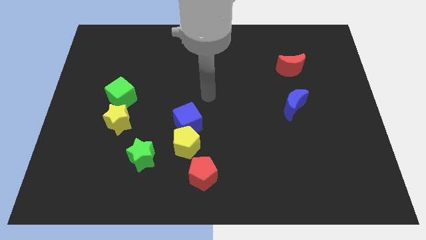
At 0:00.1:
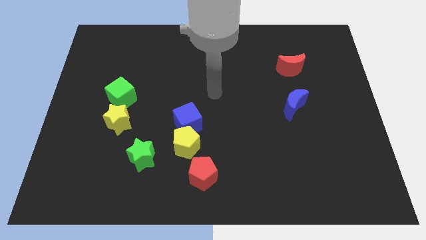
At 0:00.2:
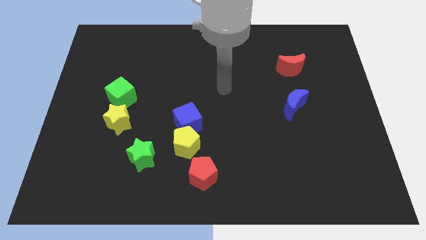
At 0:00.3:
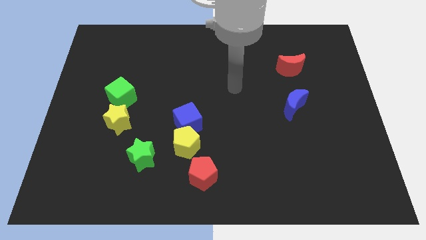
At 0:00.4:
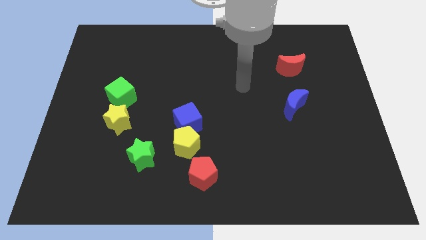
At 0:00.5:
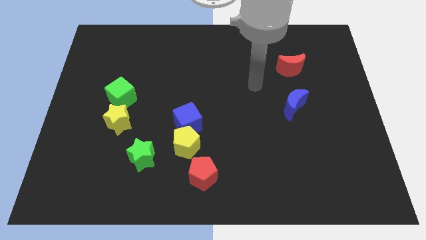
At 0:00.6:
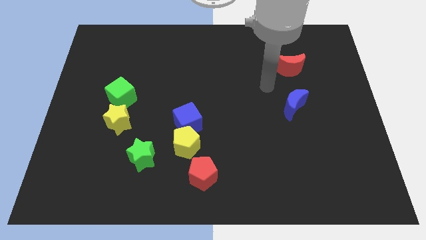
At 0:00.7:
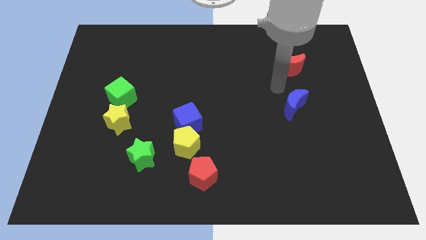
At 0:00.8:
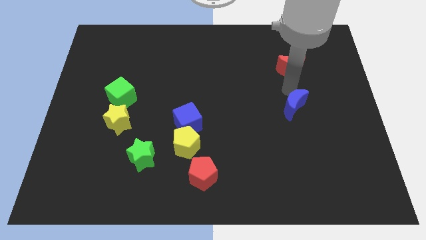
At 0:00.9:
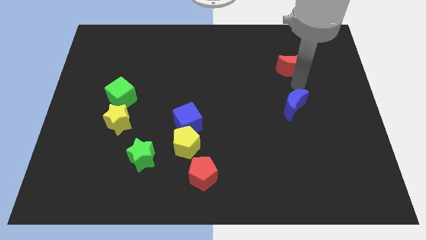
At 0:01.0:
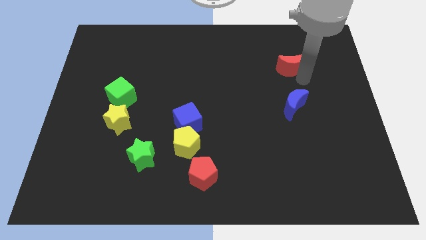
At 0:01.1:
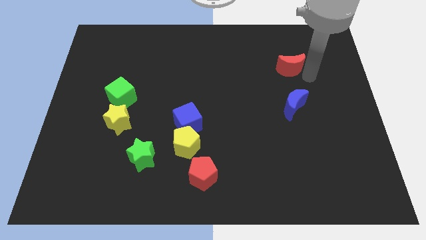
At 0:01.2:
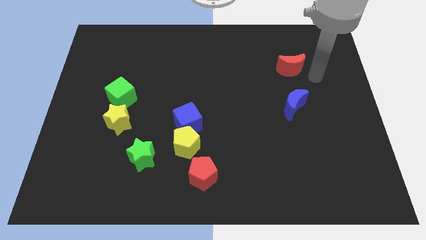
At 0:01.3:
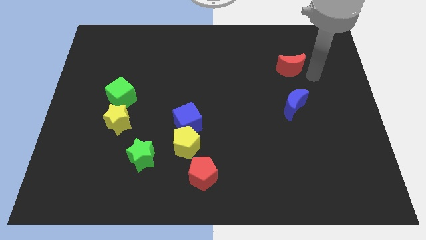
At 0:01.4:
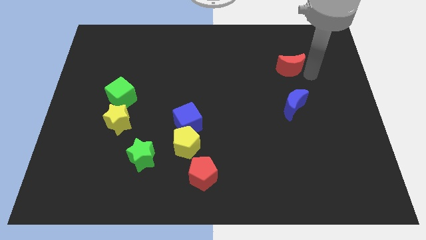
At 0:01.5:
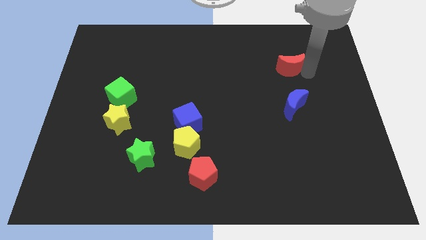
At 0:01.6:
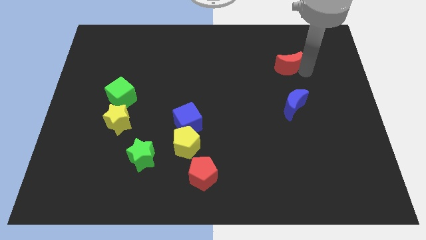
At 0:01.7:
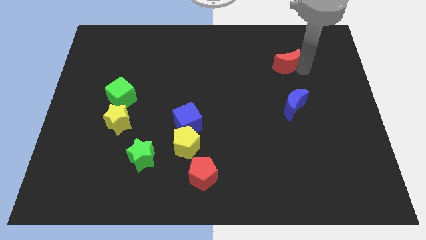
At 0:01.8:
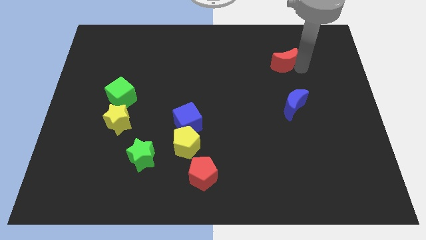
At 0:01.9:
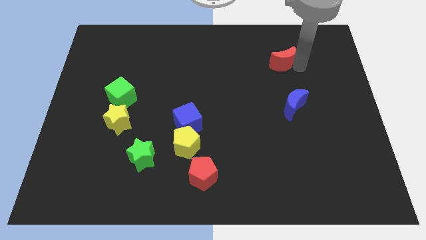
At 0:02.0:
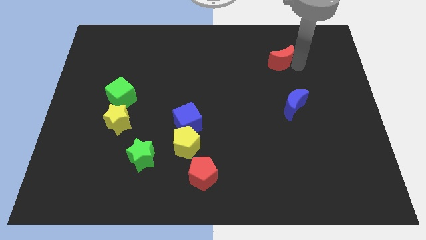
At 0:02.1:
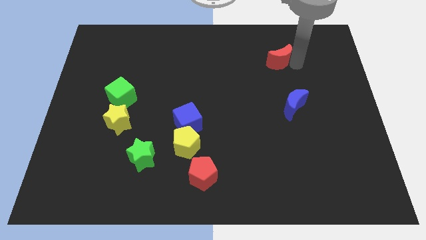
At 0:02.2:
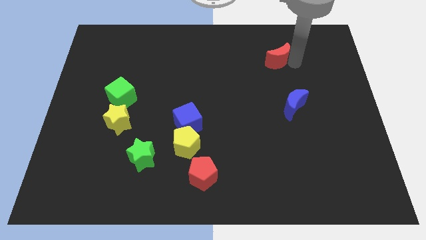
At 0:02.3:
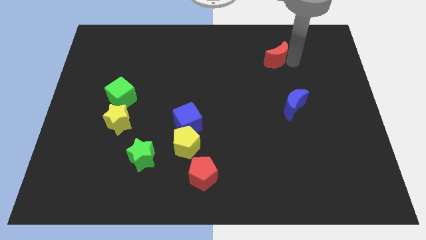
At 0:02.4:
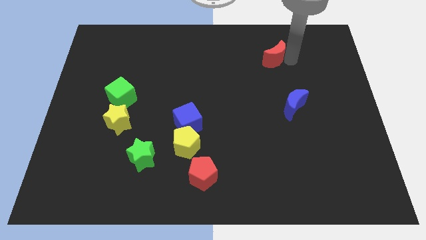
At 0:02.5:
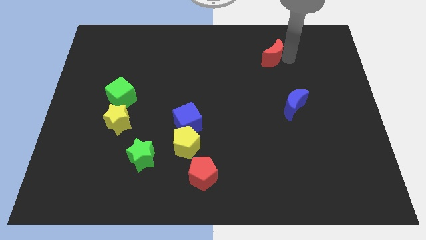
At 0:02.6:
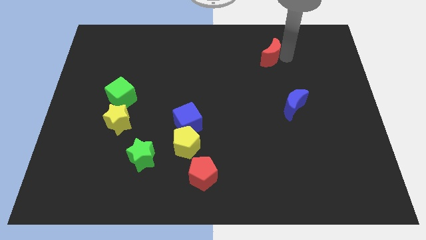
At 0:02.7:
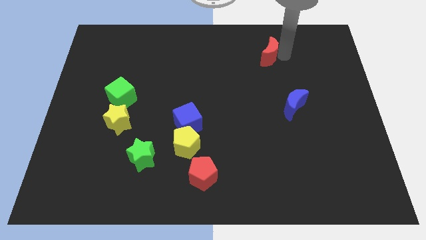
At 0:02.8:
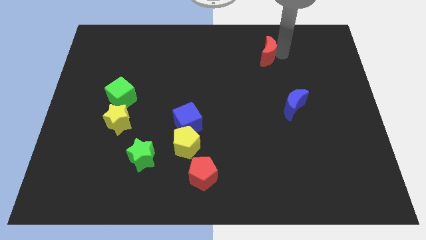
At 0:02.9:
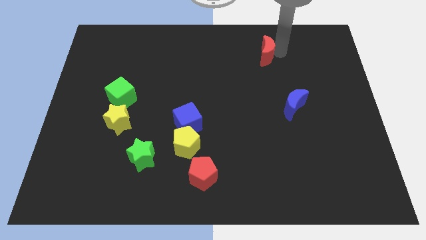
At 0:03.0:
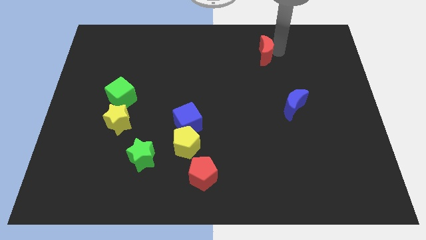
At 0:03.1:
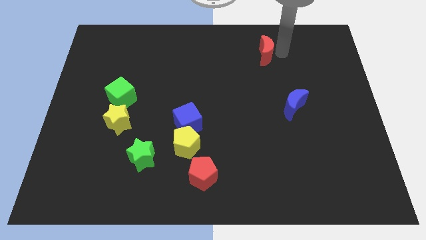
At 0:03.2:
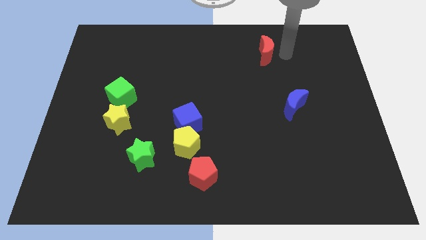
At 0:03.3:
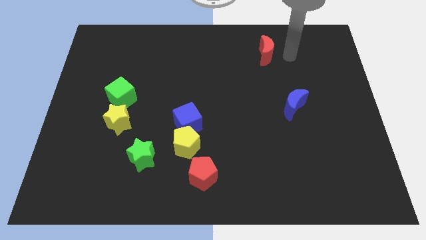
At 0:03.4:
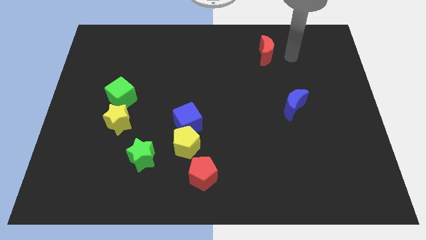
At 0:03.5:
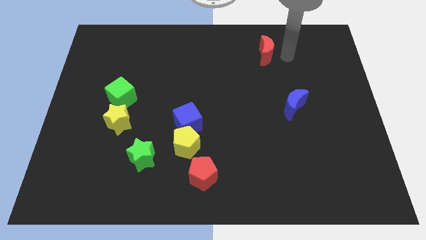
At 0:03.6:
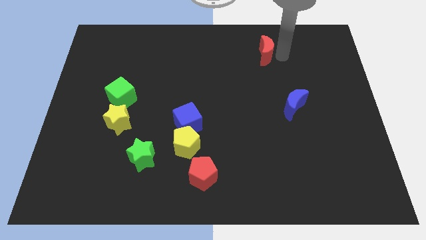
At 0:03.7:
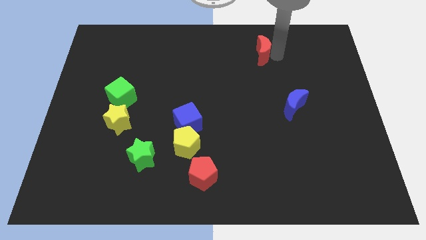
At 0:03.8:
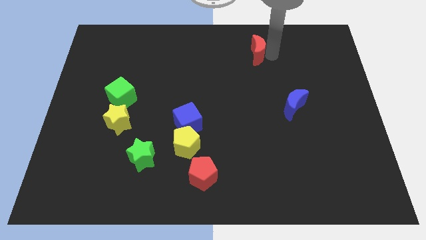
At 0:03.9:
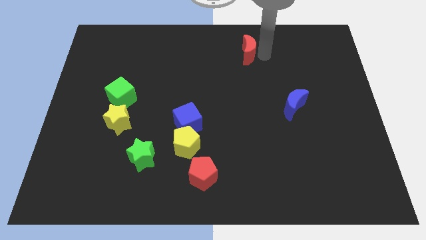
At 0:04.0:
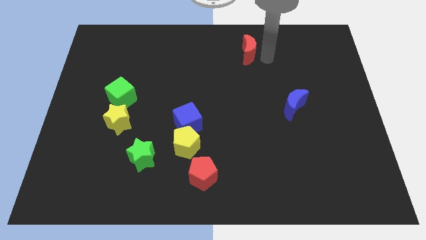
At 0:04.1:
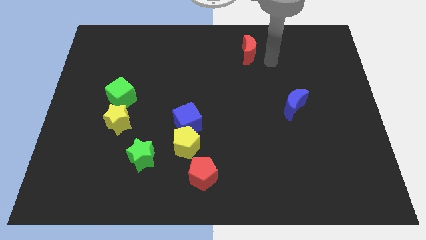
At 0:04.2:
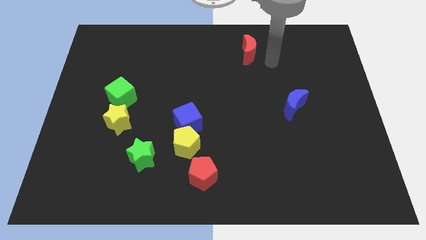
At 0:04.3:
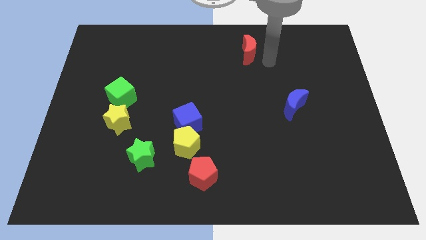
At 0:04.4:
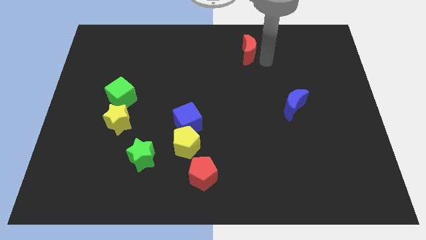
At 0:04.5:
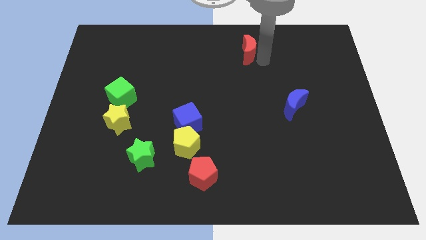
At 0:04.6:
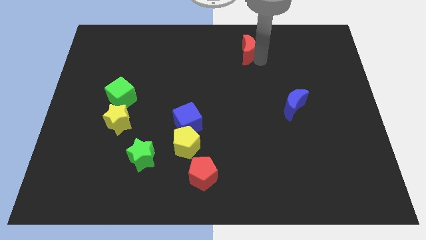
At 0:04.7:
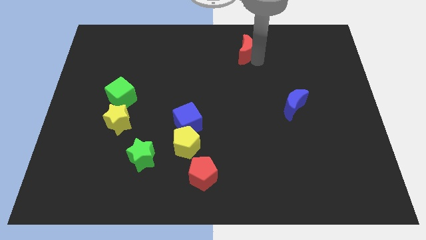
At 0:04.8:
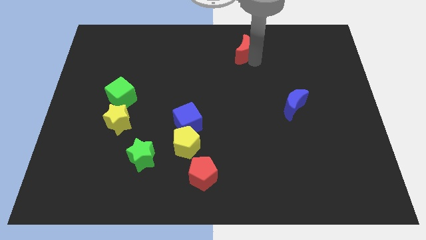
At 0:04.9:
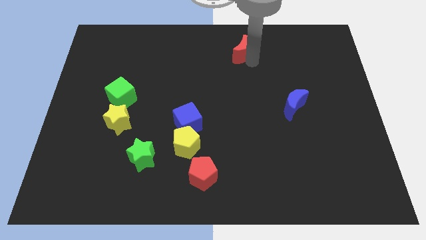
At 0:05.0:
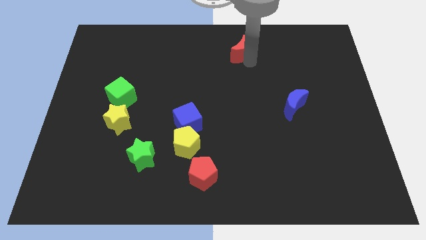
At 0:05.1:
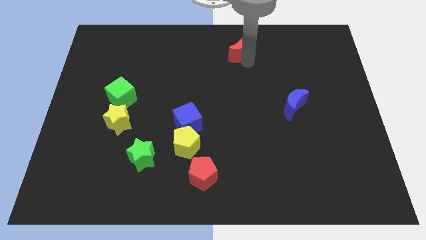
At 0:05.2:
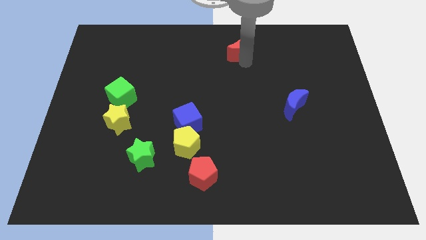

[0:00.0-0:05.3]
slide the red moon to the top

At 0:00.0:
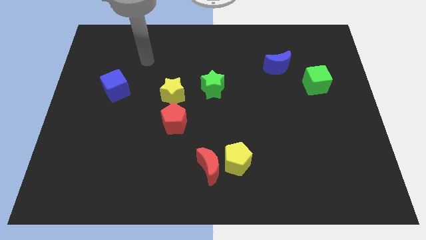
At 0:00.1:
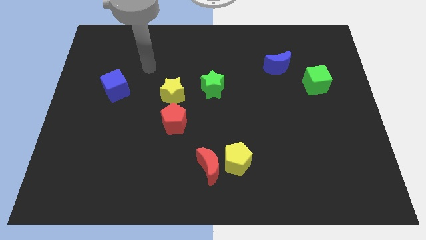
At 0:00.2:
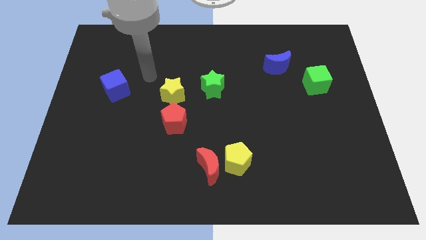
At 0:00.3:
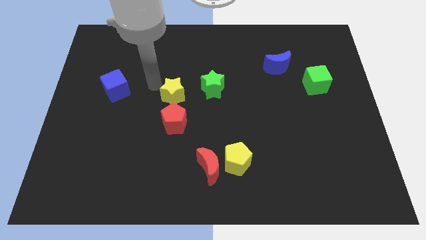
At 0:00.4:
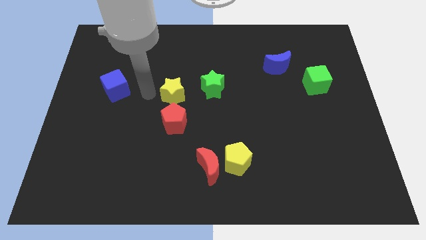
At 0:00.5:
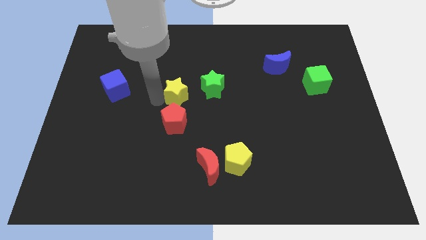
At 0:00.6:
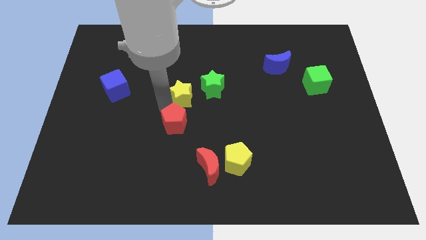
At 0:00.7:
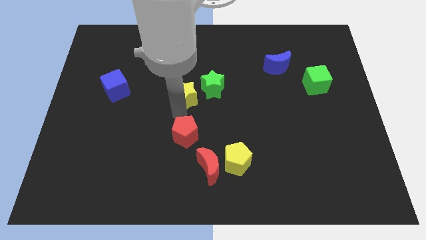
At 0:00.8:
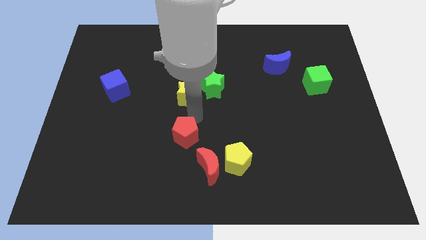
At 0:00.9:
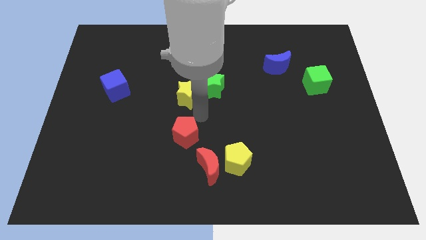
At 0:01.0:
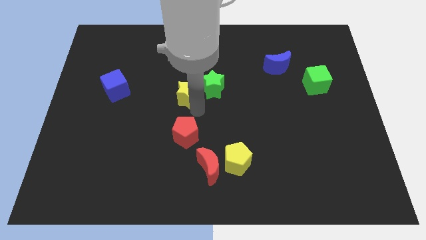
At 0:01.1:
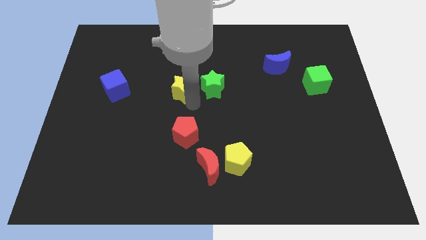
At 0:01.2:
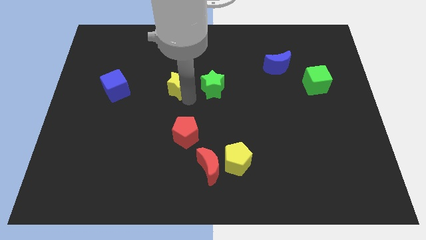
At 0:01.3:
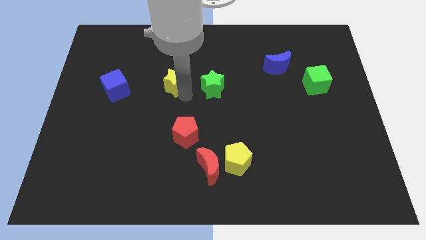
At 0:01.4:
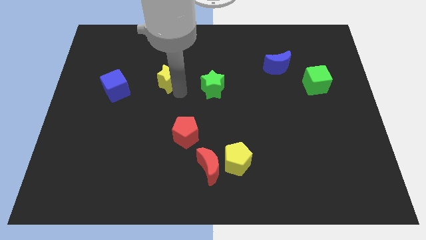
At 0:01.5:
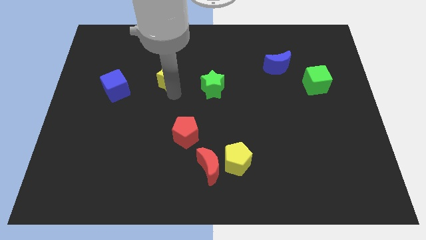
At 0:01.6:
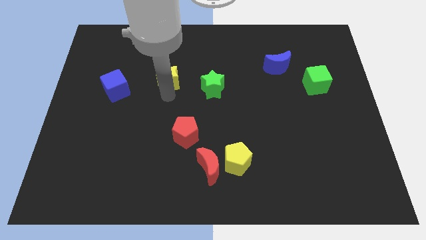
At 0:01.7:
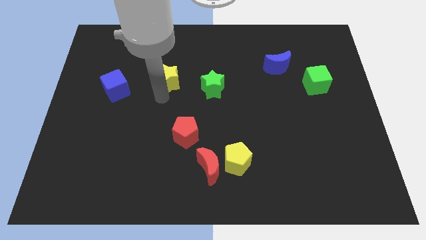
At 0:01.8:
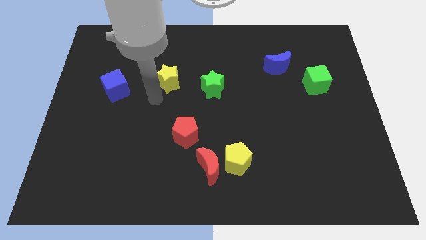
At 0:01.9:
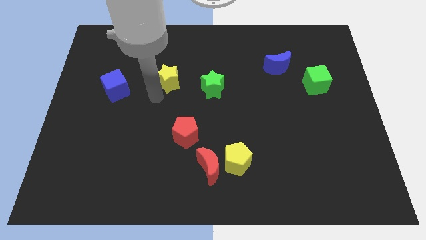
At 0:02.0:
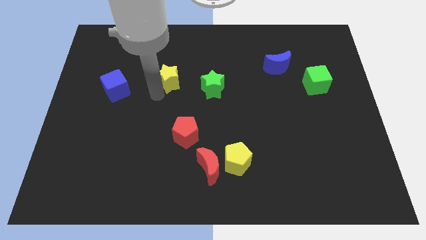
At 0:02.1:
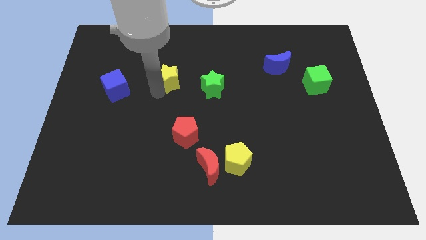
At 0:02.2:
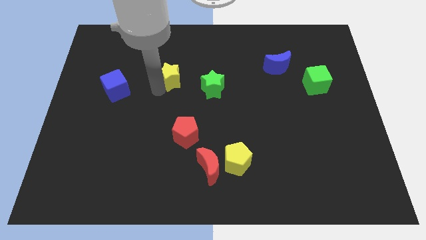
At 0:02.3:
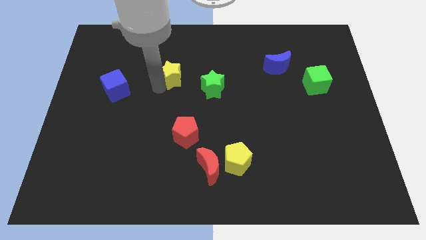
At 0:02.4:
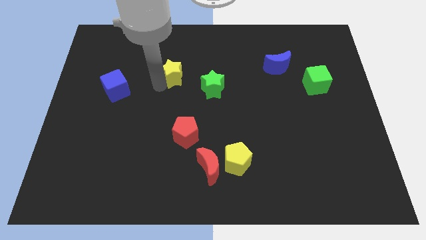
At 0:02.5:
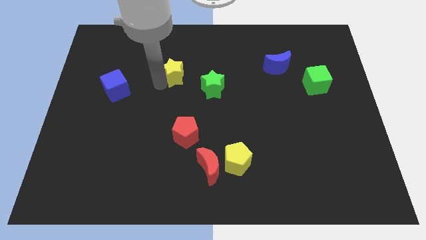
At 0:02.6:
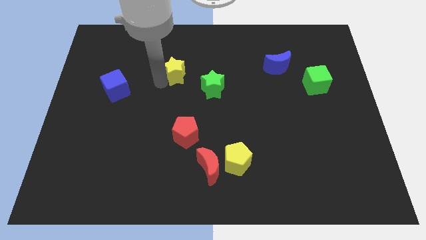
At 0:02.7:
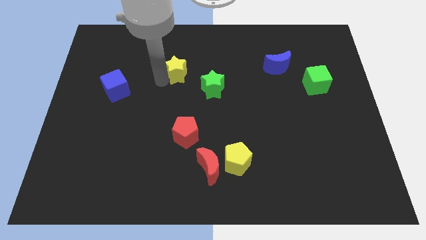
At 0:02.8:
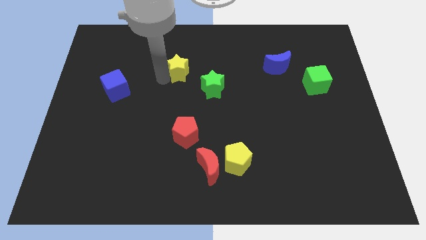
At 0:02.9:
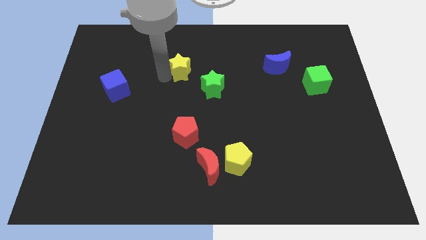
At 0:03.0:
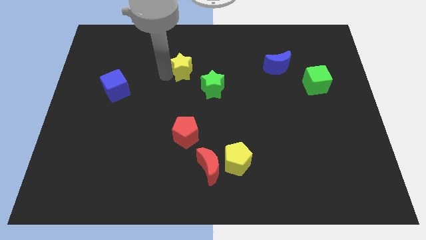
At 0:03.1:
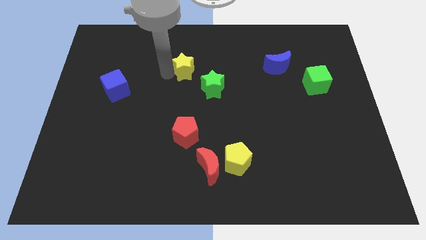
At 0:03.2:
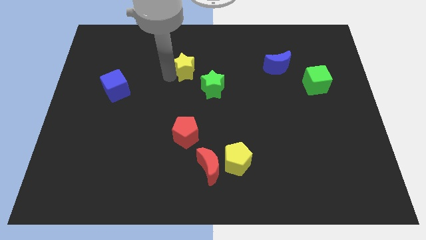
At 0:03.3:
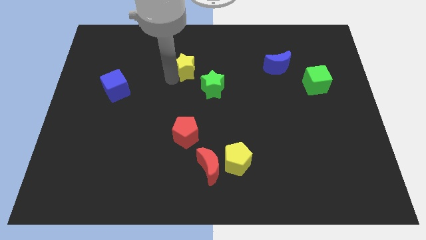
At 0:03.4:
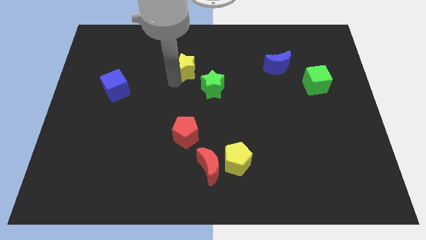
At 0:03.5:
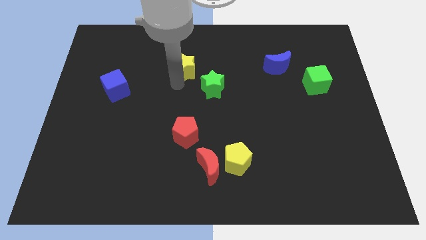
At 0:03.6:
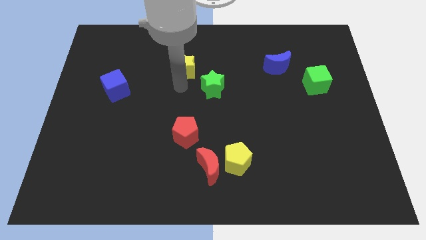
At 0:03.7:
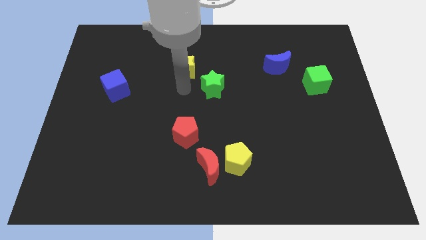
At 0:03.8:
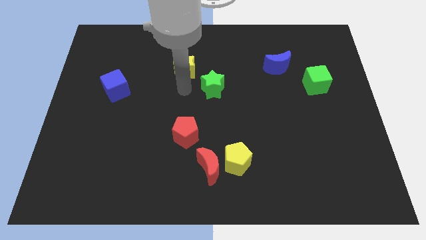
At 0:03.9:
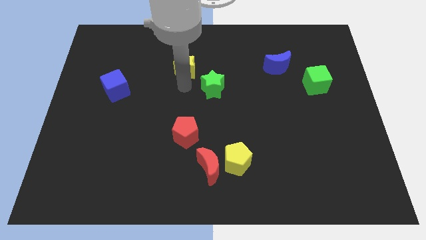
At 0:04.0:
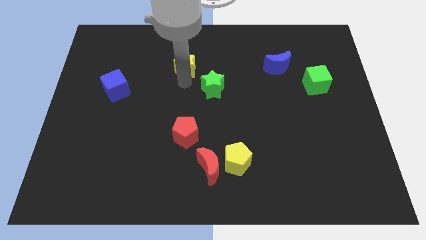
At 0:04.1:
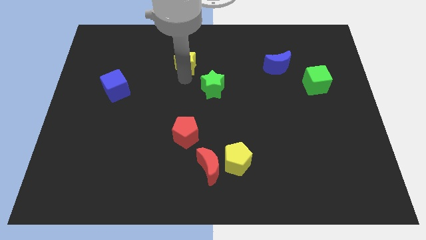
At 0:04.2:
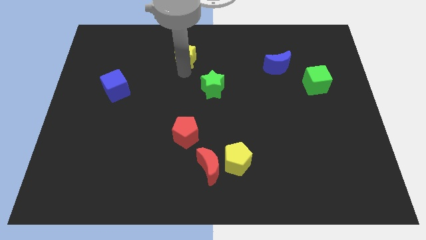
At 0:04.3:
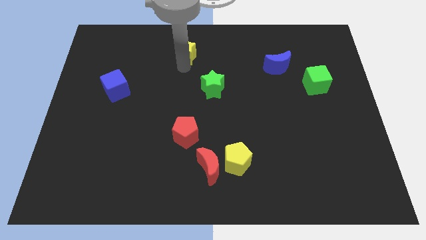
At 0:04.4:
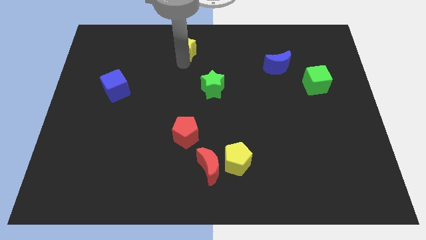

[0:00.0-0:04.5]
slide the yellow star to the towards your base
